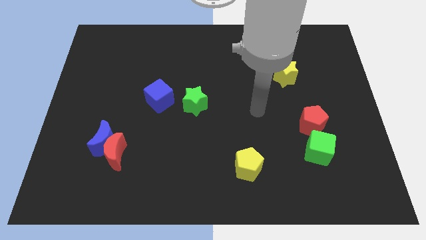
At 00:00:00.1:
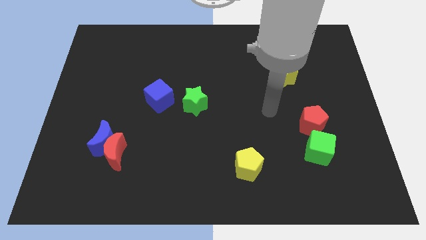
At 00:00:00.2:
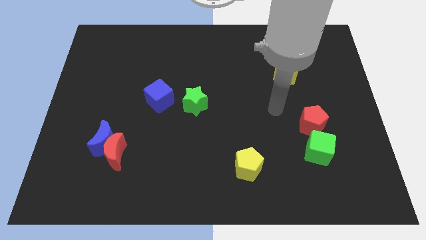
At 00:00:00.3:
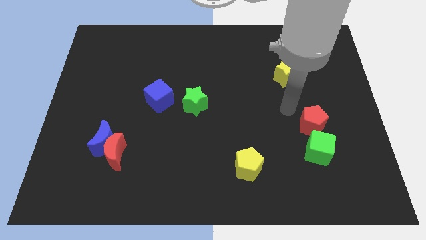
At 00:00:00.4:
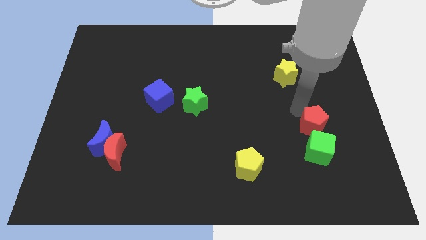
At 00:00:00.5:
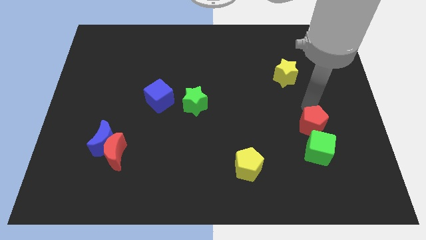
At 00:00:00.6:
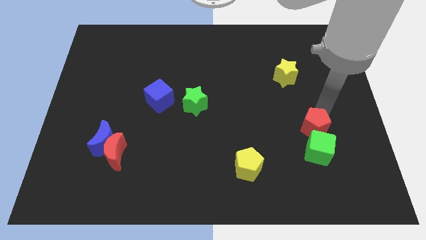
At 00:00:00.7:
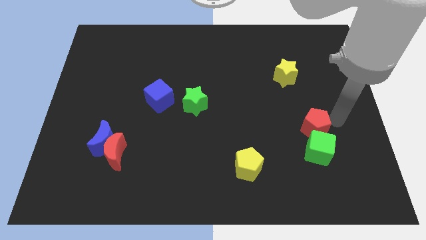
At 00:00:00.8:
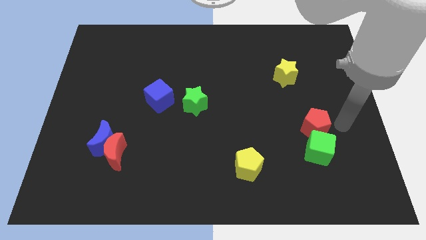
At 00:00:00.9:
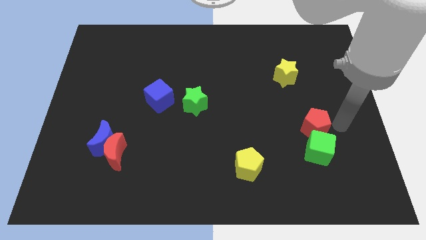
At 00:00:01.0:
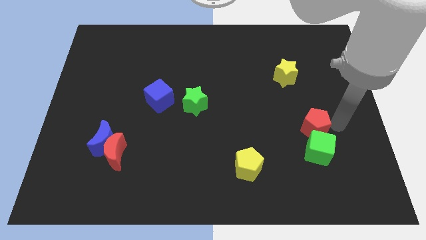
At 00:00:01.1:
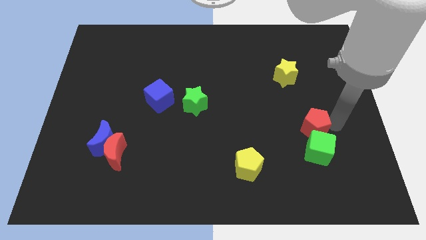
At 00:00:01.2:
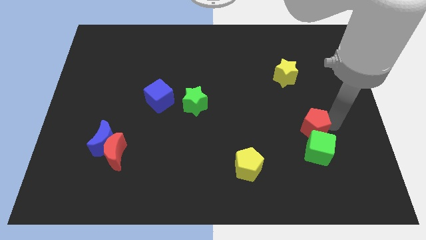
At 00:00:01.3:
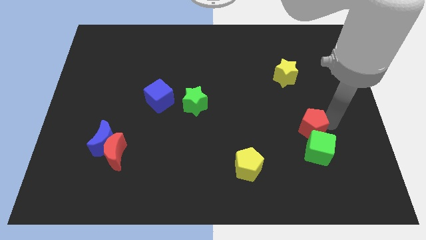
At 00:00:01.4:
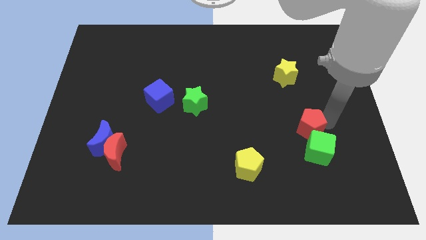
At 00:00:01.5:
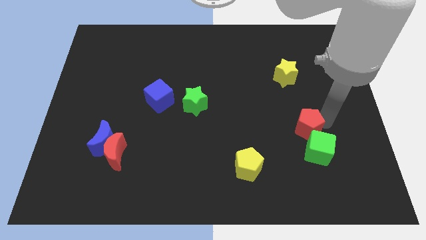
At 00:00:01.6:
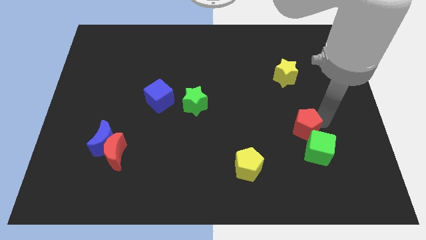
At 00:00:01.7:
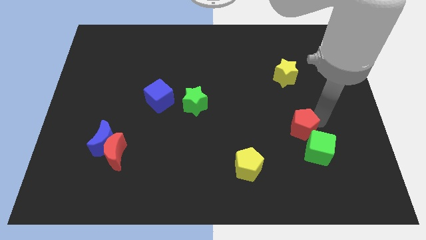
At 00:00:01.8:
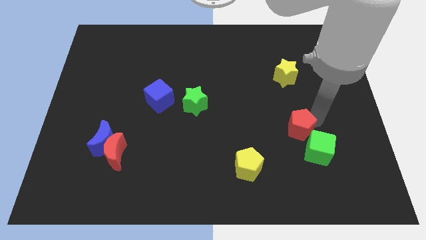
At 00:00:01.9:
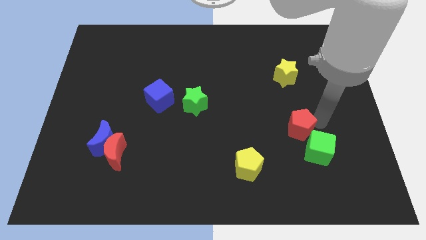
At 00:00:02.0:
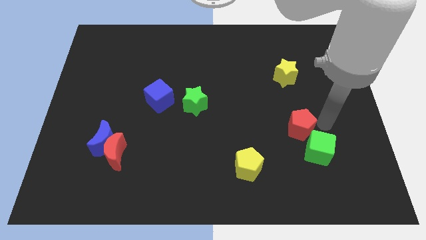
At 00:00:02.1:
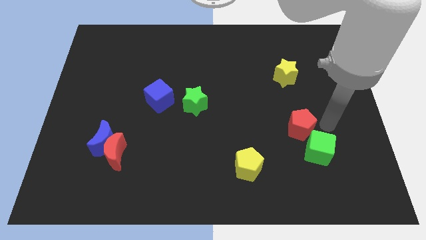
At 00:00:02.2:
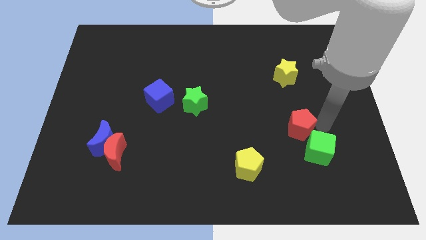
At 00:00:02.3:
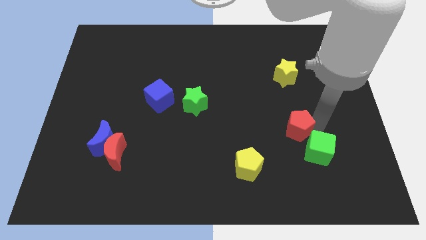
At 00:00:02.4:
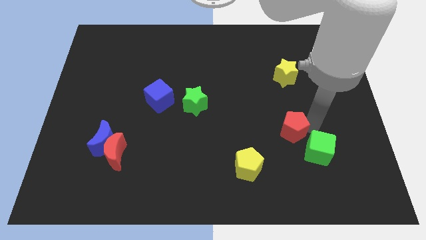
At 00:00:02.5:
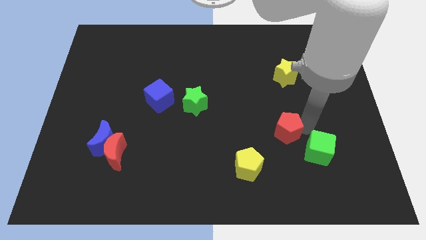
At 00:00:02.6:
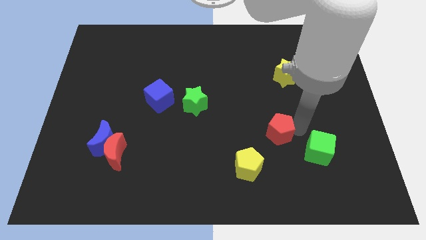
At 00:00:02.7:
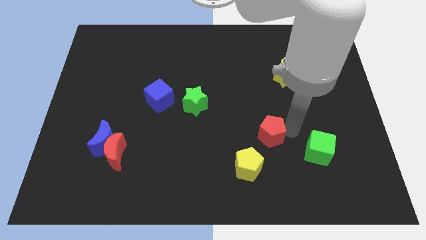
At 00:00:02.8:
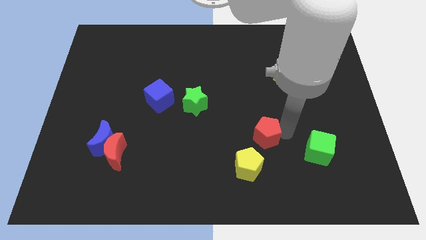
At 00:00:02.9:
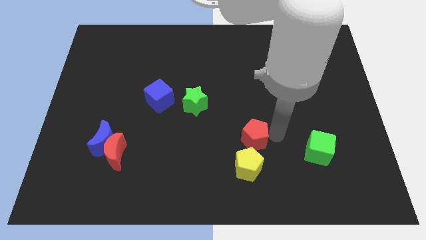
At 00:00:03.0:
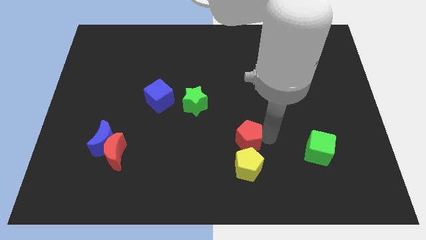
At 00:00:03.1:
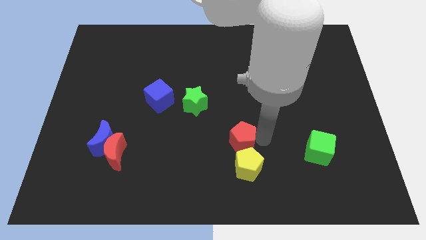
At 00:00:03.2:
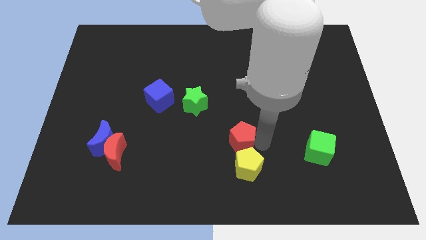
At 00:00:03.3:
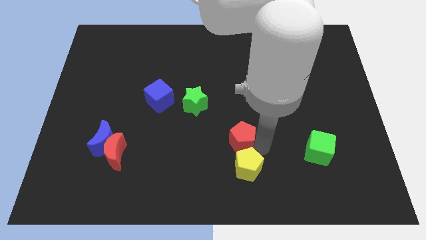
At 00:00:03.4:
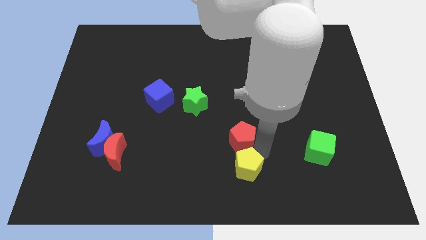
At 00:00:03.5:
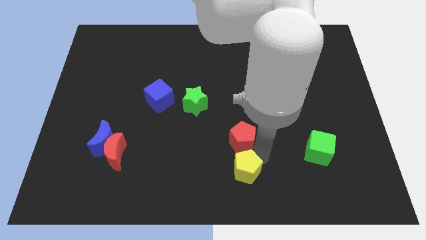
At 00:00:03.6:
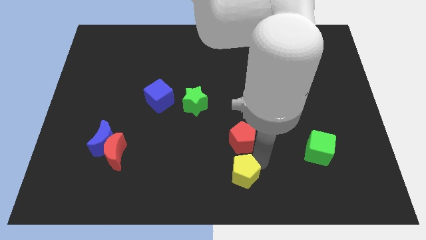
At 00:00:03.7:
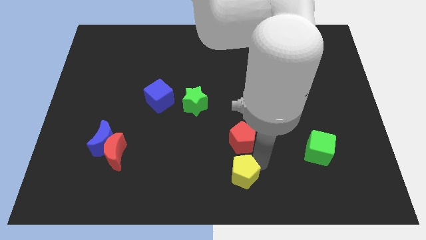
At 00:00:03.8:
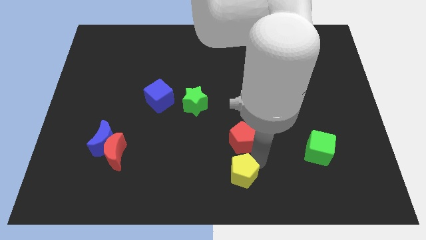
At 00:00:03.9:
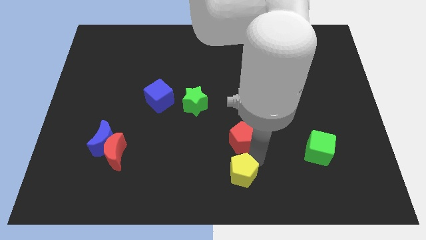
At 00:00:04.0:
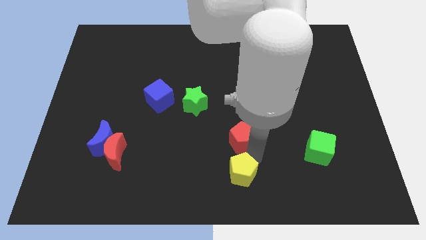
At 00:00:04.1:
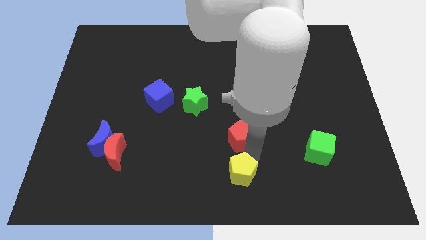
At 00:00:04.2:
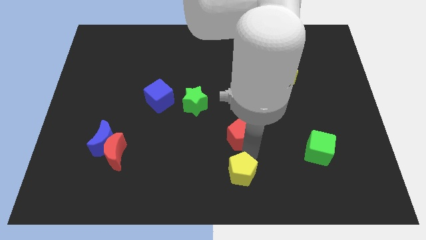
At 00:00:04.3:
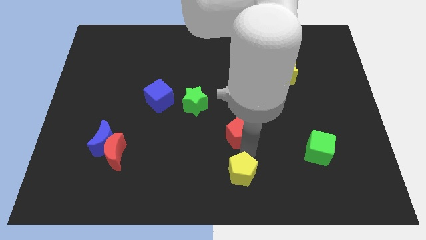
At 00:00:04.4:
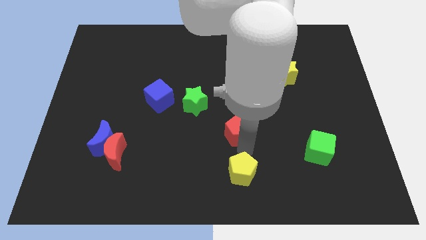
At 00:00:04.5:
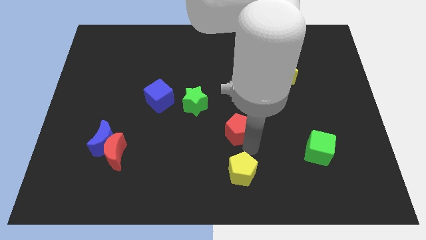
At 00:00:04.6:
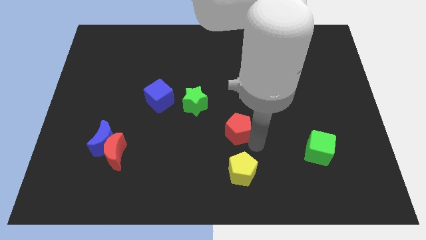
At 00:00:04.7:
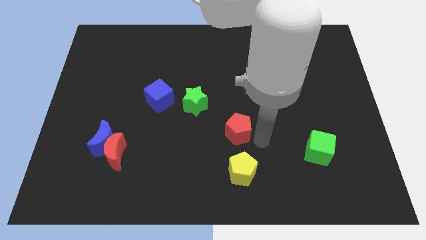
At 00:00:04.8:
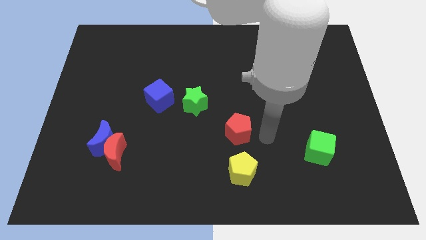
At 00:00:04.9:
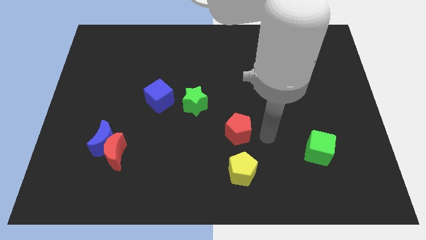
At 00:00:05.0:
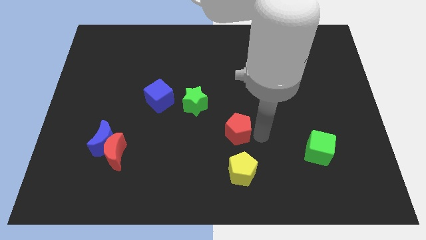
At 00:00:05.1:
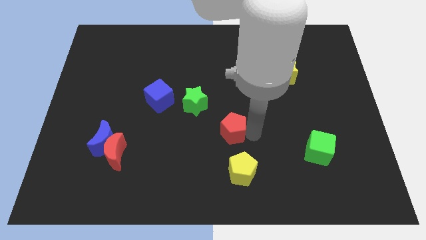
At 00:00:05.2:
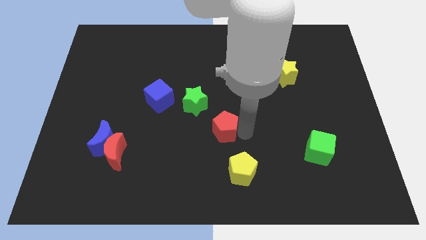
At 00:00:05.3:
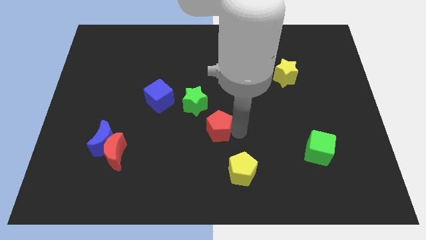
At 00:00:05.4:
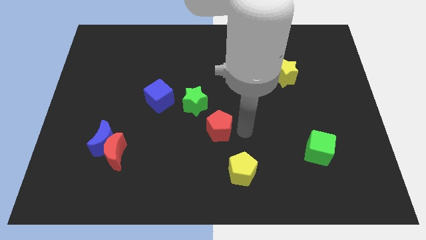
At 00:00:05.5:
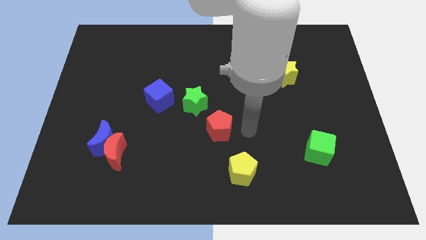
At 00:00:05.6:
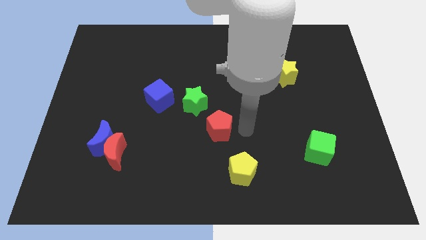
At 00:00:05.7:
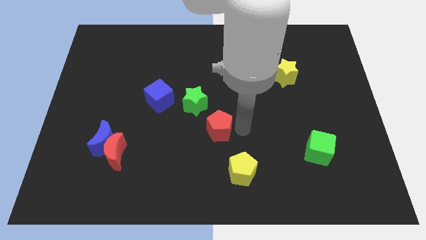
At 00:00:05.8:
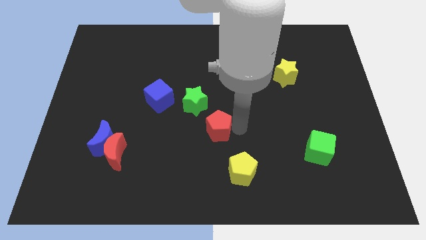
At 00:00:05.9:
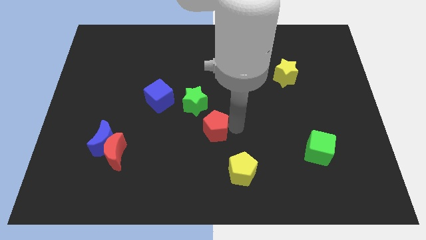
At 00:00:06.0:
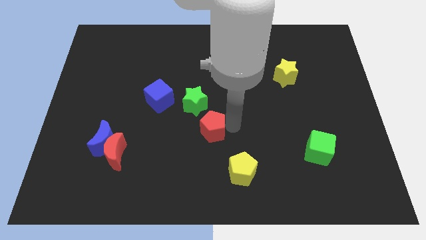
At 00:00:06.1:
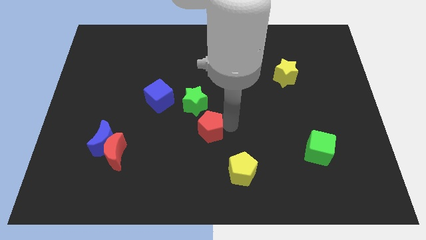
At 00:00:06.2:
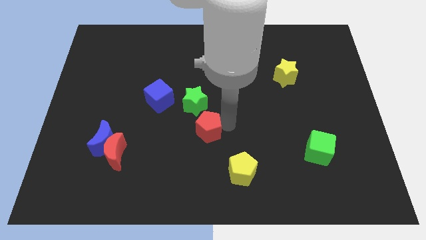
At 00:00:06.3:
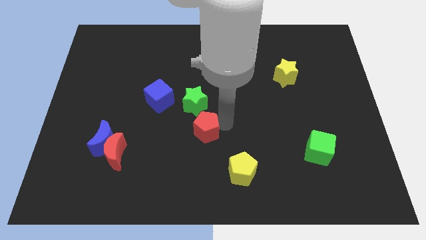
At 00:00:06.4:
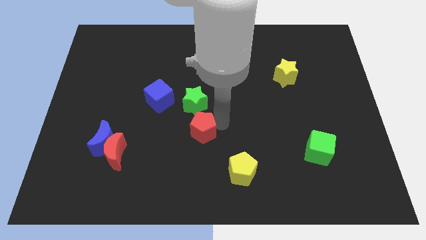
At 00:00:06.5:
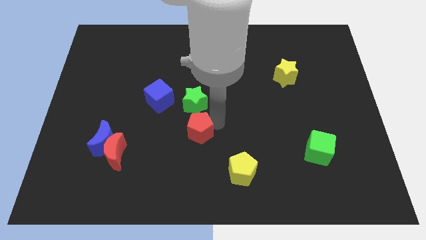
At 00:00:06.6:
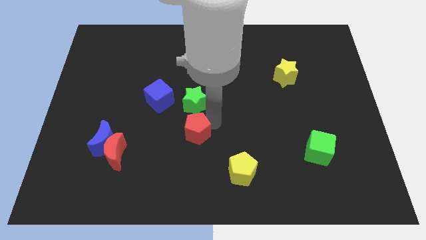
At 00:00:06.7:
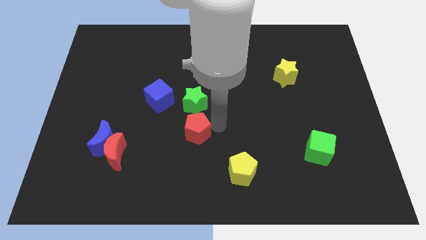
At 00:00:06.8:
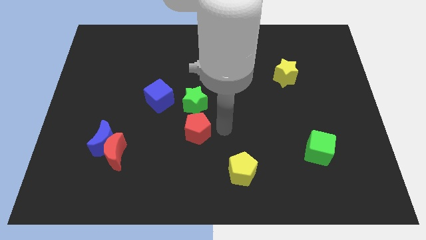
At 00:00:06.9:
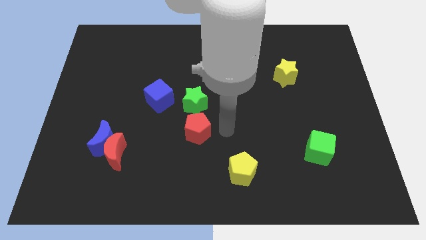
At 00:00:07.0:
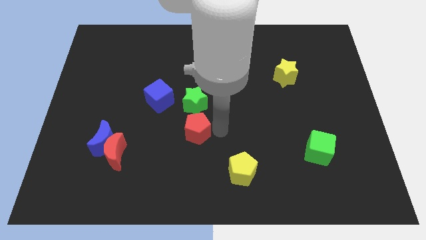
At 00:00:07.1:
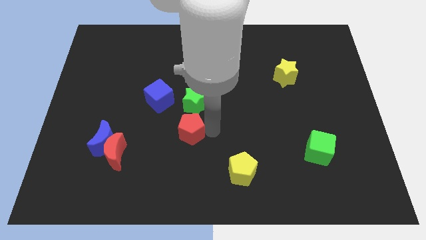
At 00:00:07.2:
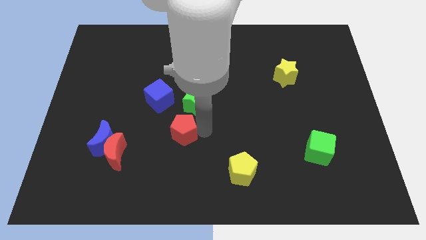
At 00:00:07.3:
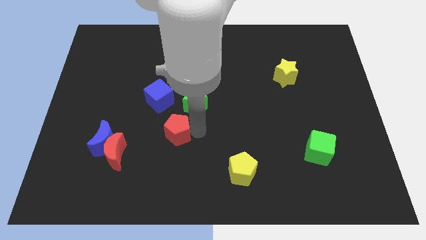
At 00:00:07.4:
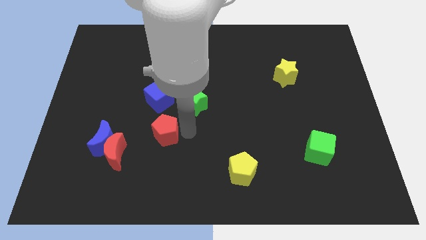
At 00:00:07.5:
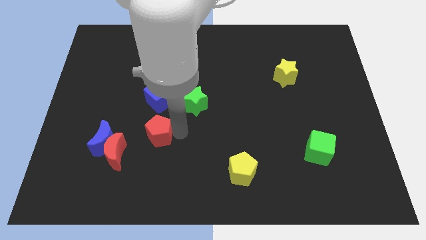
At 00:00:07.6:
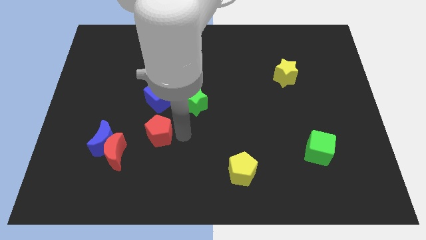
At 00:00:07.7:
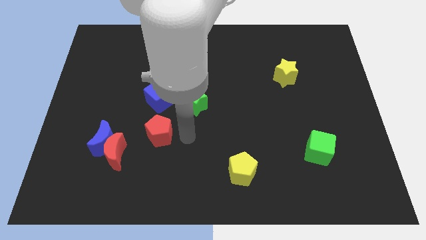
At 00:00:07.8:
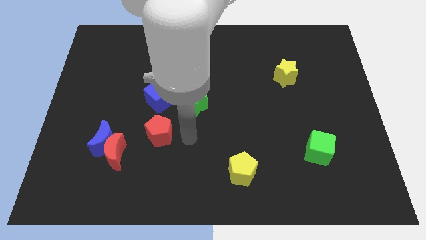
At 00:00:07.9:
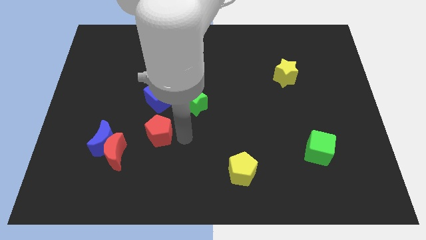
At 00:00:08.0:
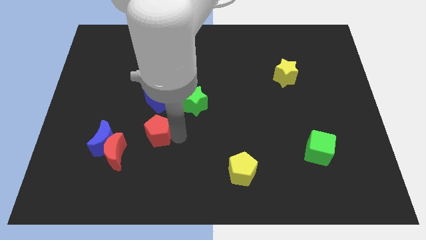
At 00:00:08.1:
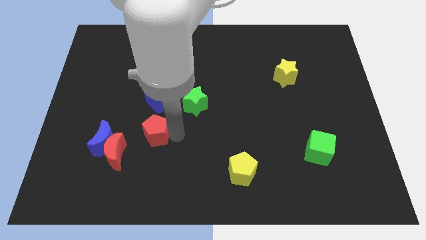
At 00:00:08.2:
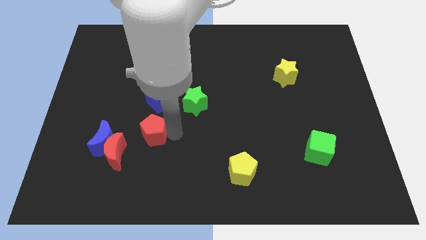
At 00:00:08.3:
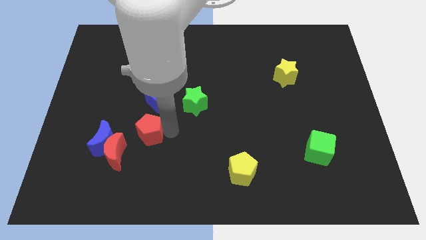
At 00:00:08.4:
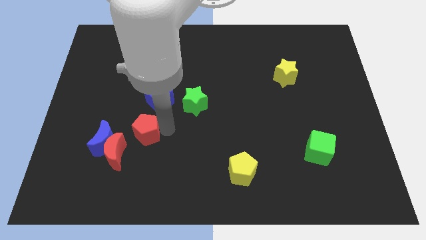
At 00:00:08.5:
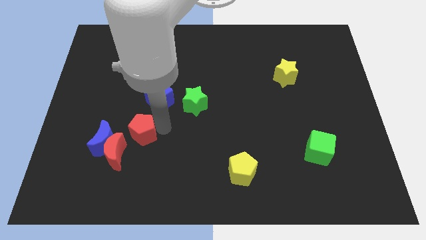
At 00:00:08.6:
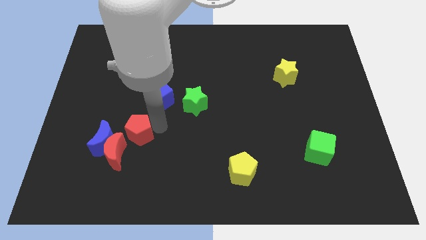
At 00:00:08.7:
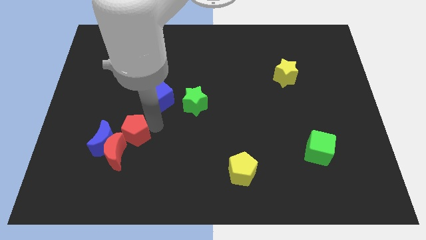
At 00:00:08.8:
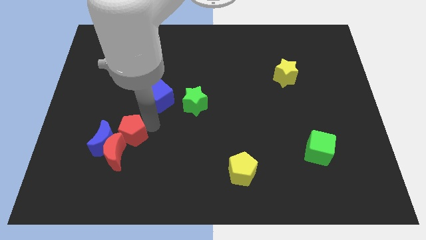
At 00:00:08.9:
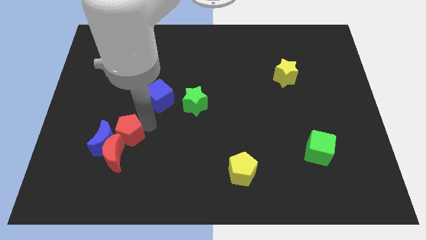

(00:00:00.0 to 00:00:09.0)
push the red pentagon towards the blue moon
